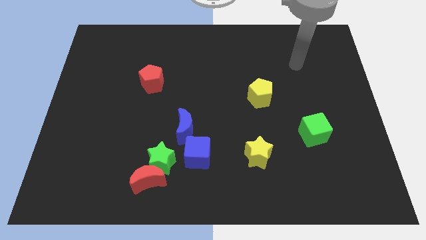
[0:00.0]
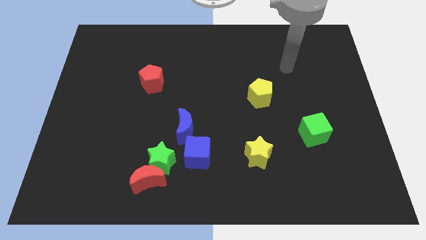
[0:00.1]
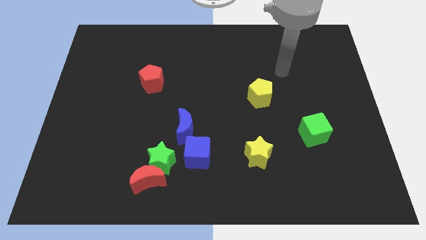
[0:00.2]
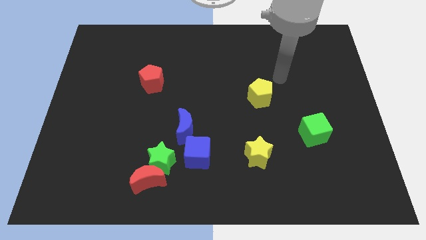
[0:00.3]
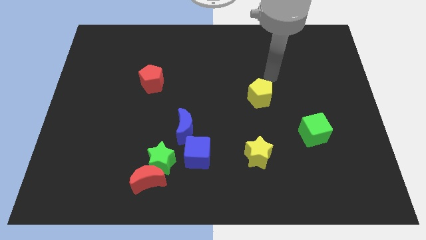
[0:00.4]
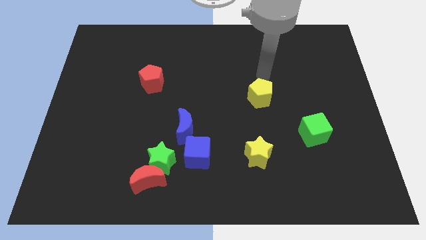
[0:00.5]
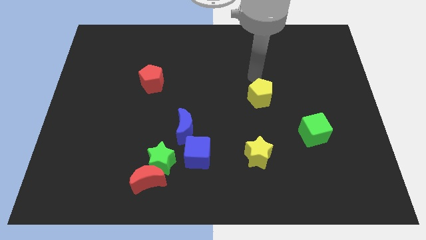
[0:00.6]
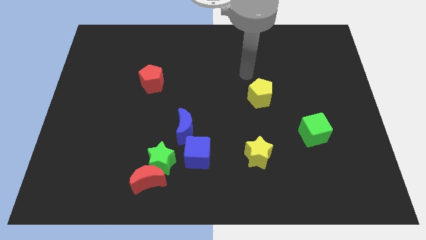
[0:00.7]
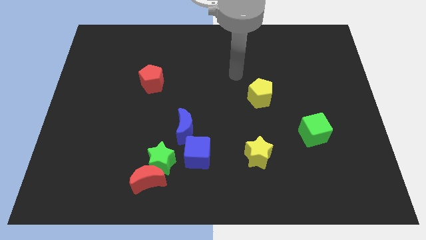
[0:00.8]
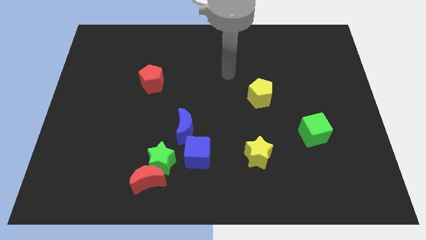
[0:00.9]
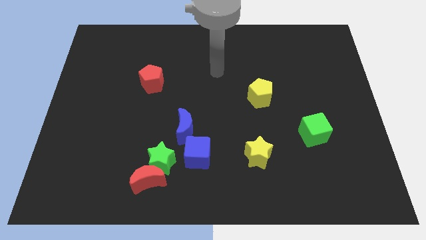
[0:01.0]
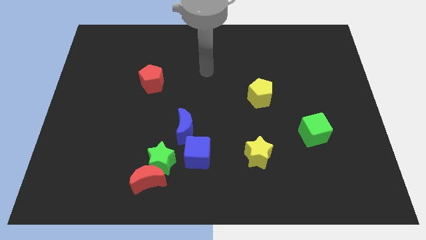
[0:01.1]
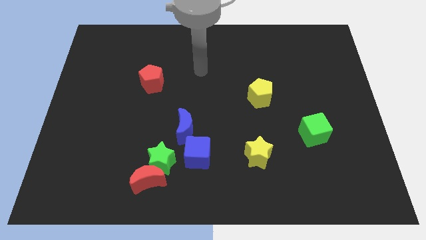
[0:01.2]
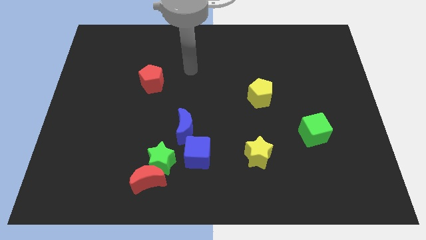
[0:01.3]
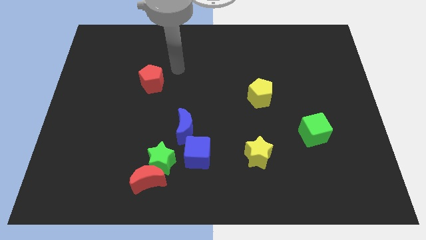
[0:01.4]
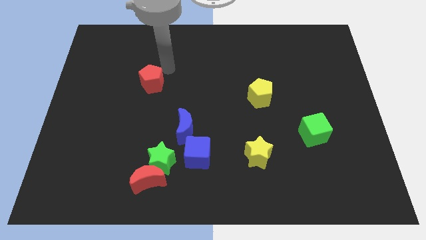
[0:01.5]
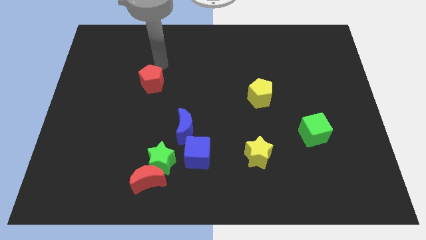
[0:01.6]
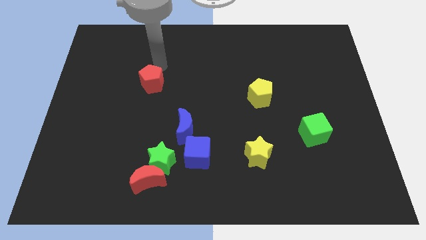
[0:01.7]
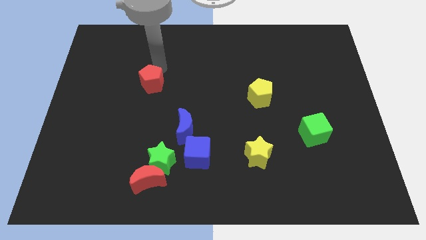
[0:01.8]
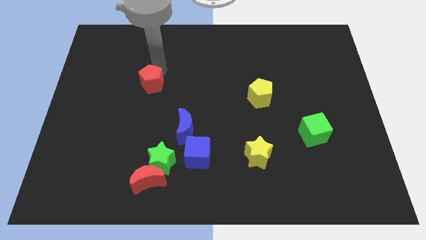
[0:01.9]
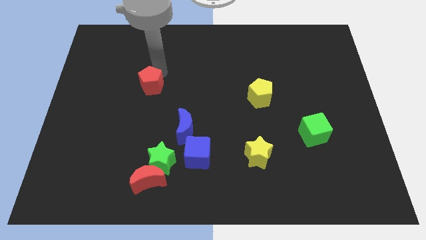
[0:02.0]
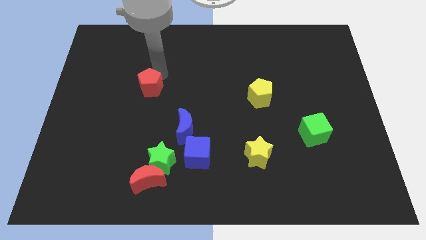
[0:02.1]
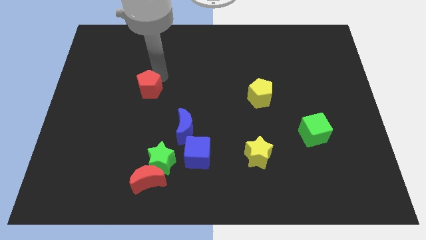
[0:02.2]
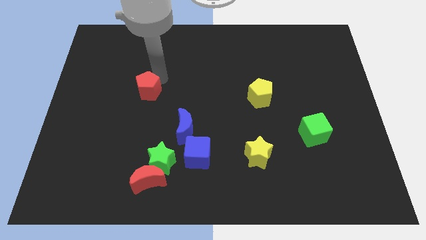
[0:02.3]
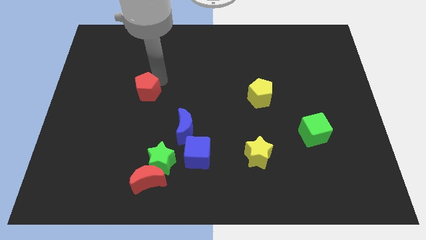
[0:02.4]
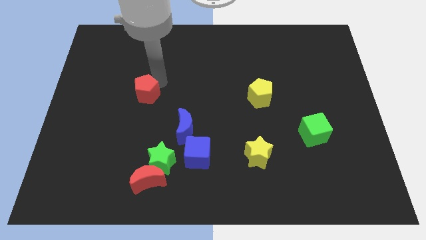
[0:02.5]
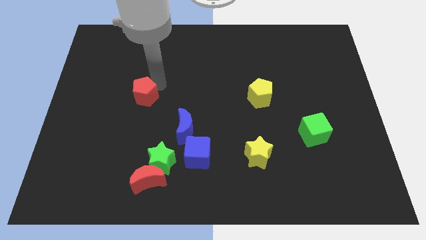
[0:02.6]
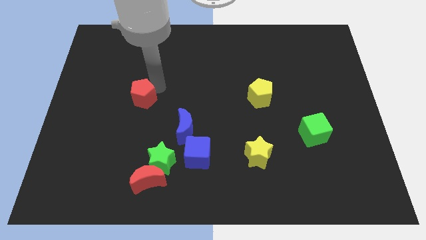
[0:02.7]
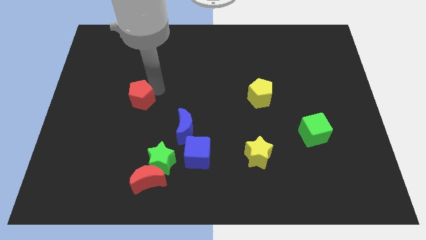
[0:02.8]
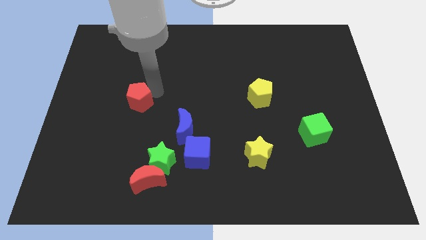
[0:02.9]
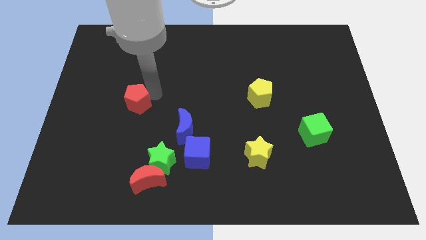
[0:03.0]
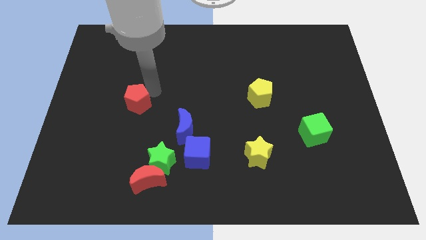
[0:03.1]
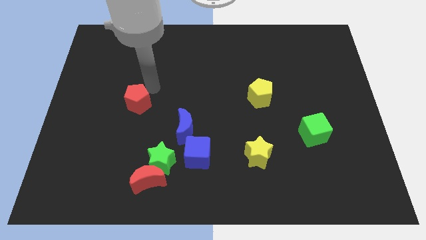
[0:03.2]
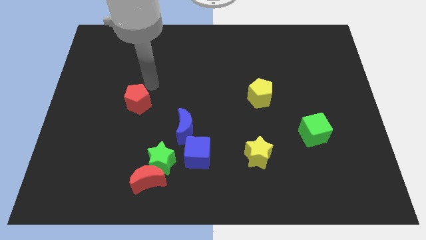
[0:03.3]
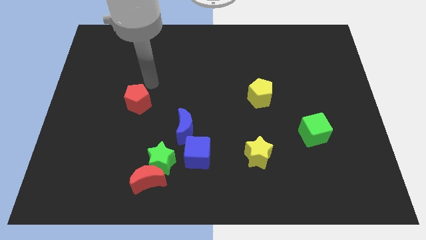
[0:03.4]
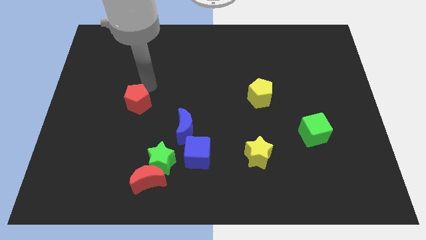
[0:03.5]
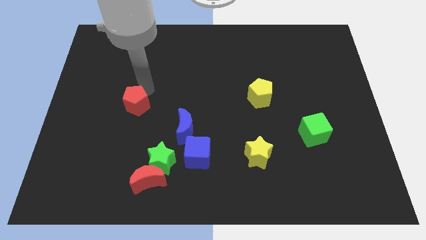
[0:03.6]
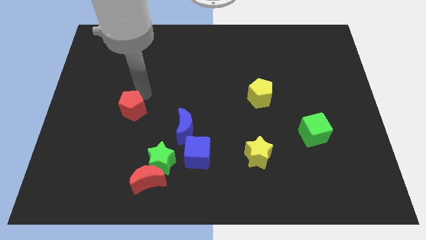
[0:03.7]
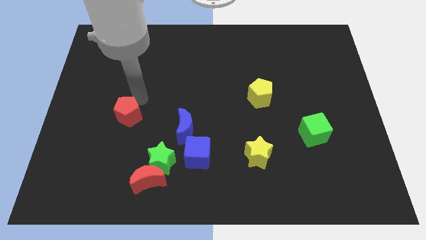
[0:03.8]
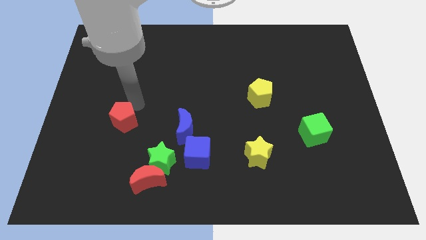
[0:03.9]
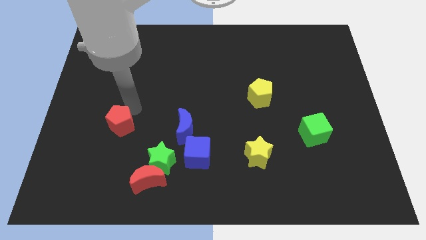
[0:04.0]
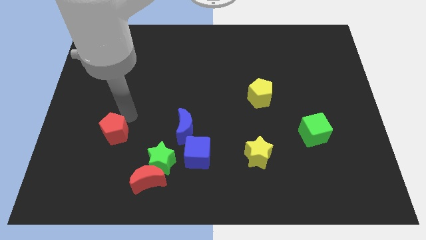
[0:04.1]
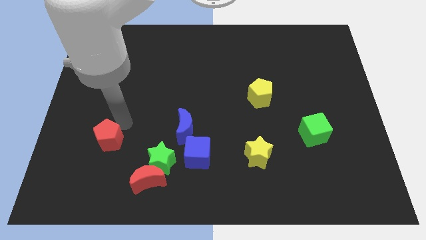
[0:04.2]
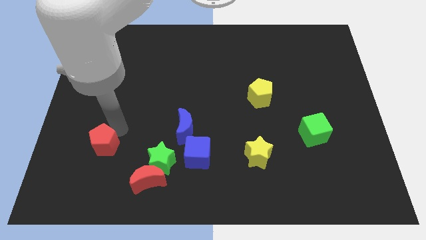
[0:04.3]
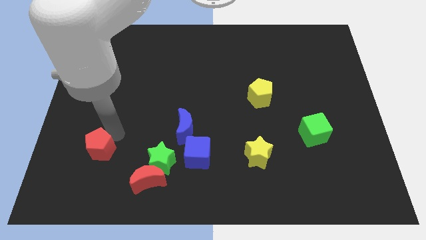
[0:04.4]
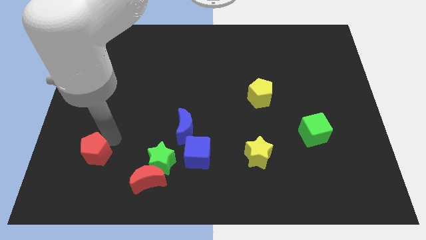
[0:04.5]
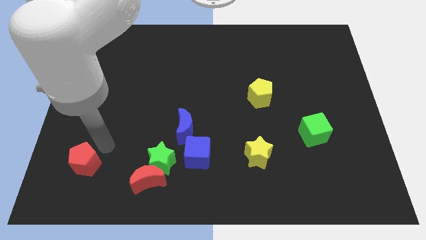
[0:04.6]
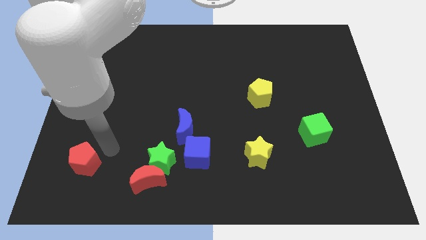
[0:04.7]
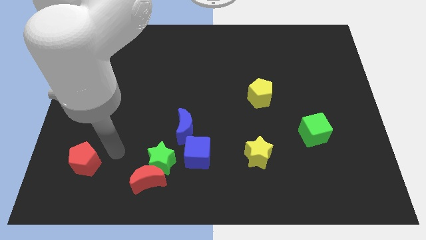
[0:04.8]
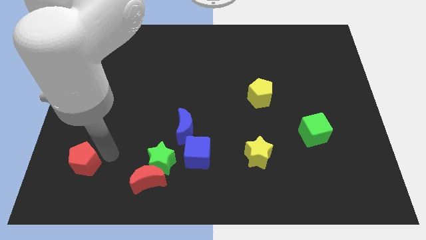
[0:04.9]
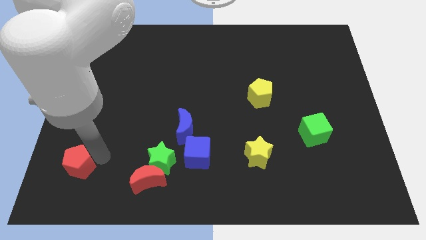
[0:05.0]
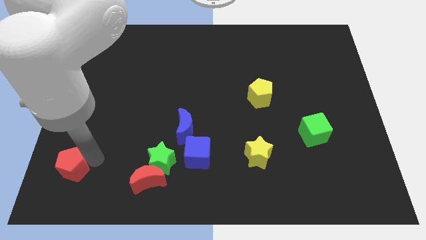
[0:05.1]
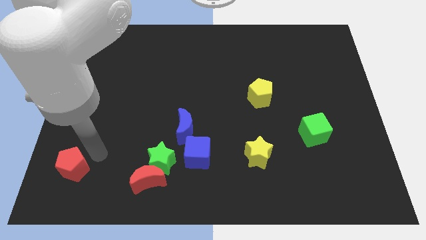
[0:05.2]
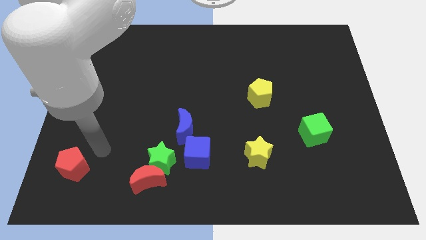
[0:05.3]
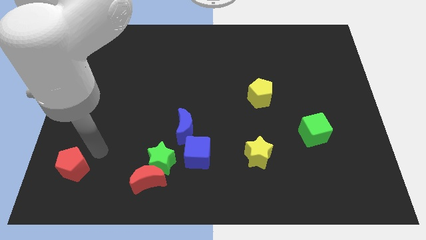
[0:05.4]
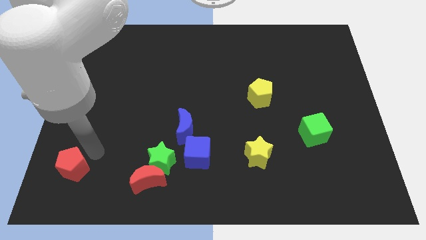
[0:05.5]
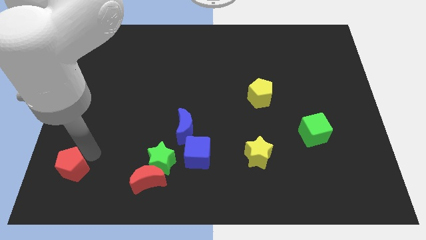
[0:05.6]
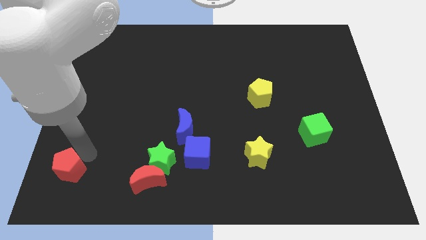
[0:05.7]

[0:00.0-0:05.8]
slide the red pentagon to the lower left corner
